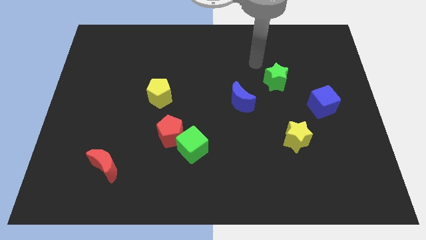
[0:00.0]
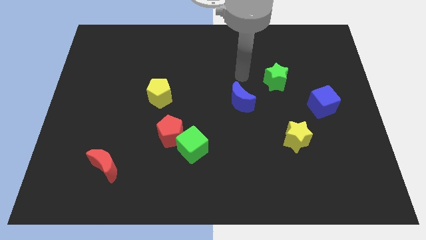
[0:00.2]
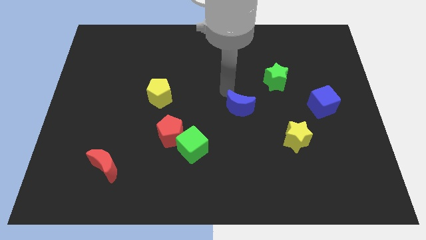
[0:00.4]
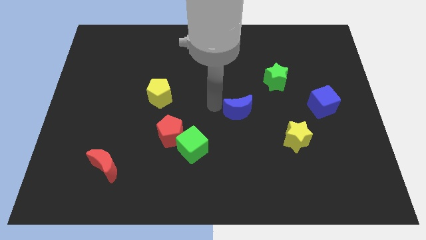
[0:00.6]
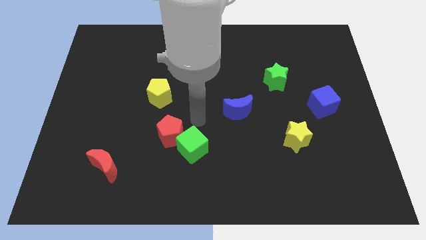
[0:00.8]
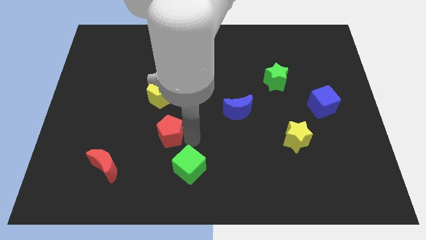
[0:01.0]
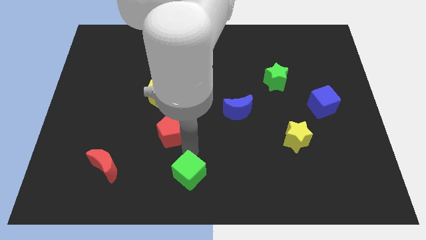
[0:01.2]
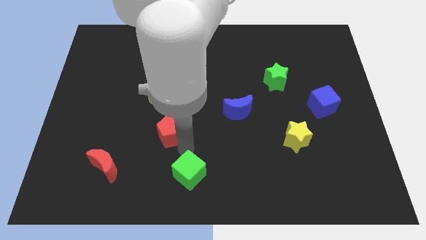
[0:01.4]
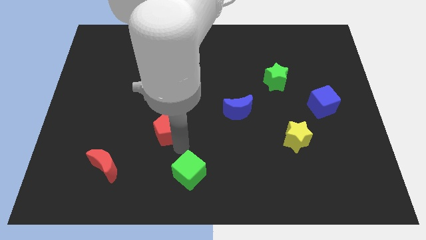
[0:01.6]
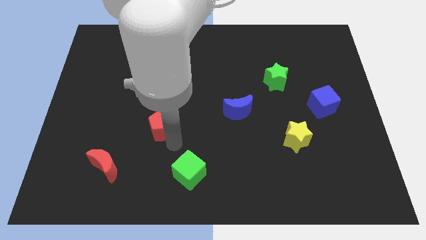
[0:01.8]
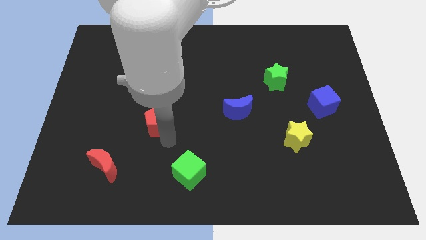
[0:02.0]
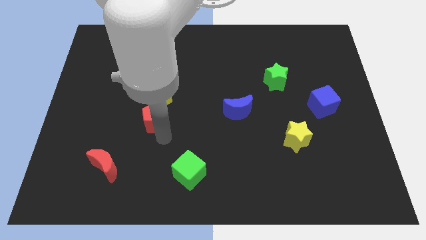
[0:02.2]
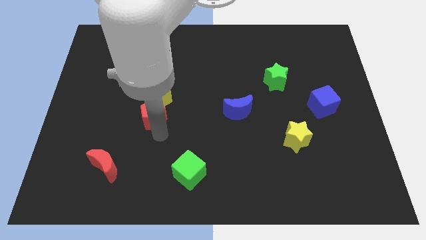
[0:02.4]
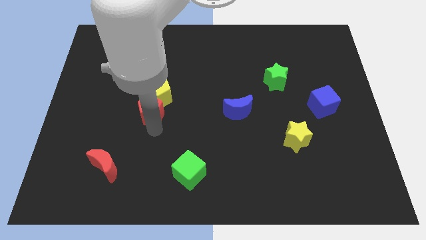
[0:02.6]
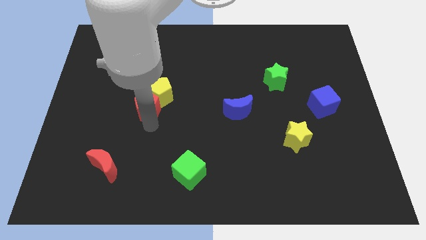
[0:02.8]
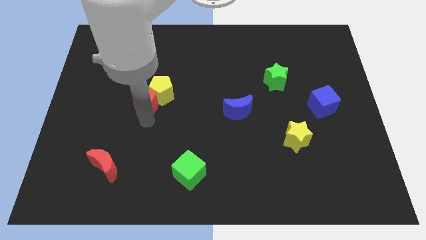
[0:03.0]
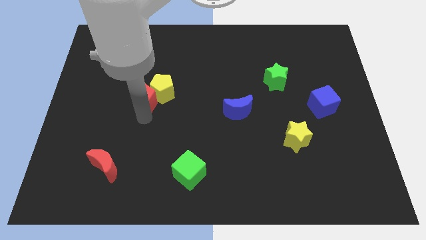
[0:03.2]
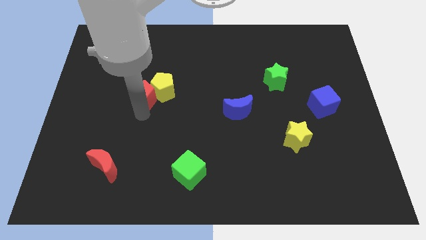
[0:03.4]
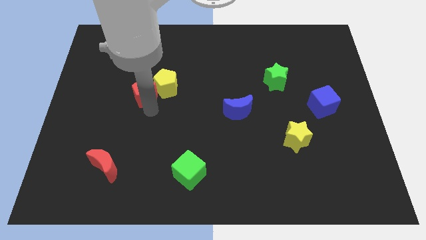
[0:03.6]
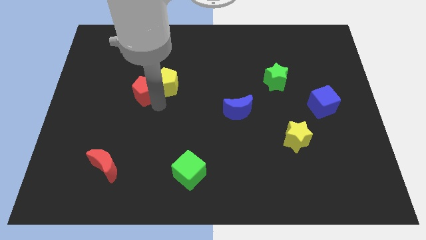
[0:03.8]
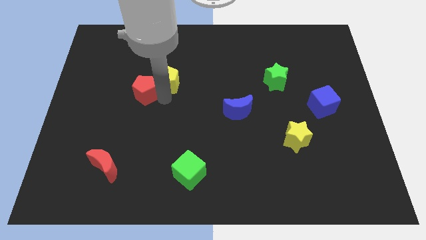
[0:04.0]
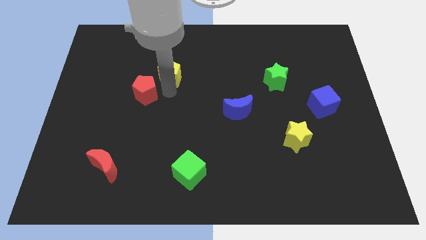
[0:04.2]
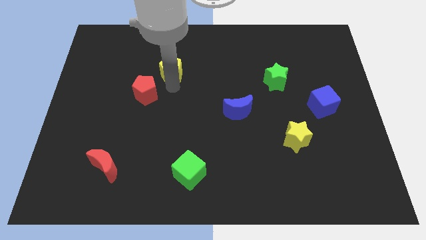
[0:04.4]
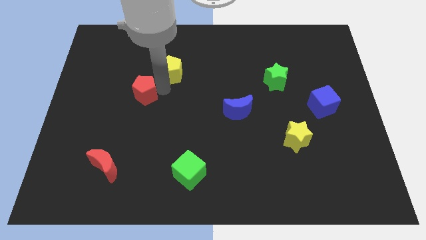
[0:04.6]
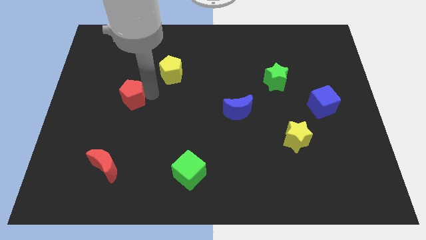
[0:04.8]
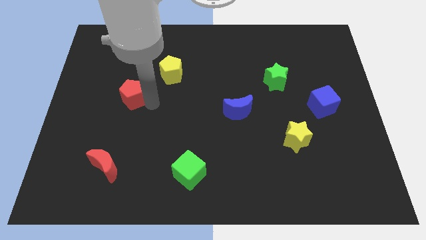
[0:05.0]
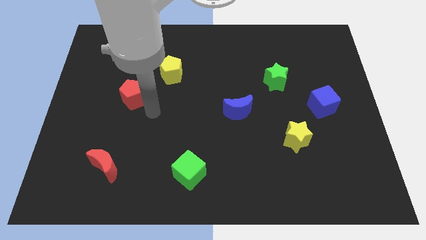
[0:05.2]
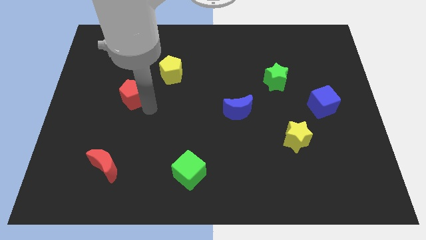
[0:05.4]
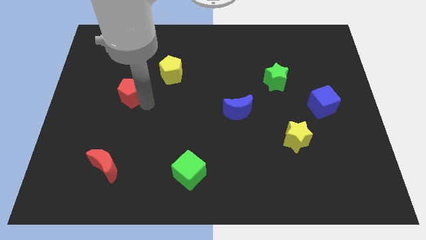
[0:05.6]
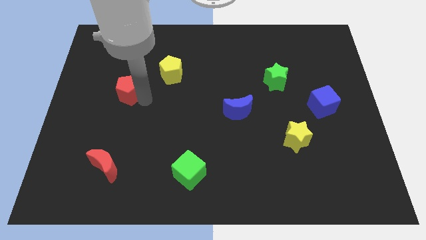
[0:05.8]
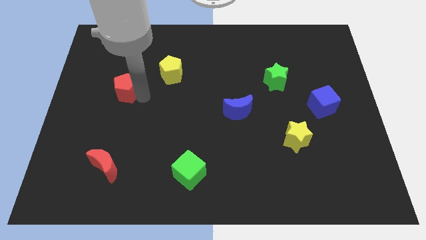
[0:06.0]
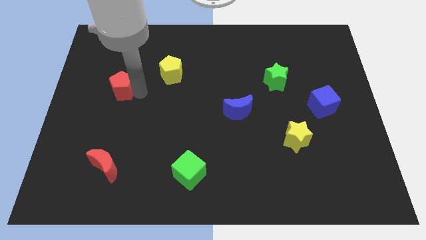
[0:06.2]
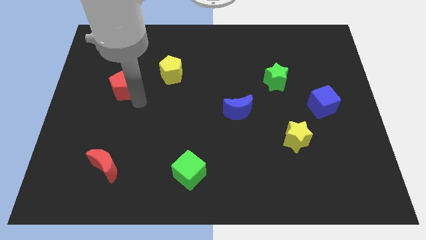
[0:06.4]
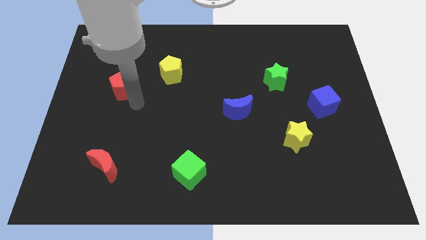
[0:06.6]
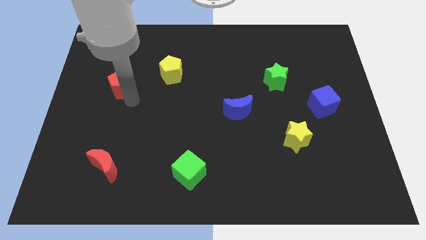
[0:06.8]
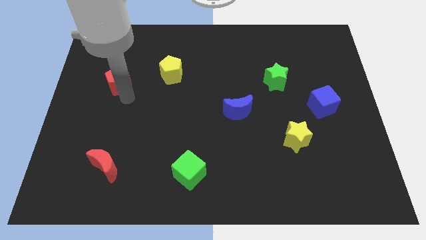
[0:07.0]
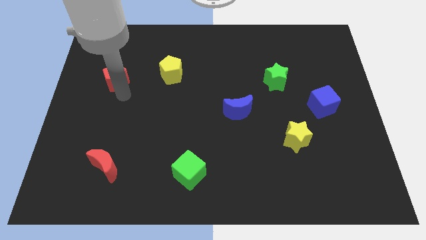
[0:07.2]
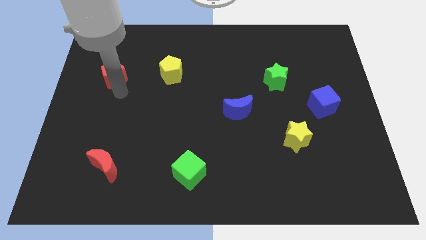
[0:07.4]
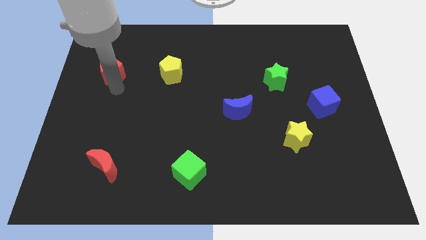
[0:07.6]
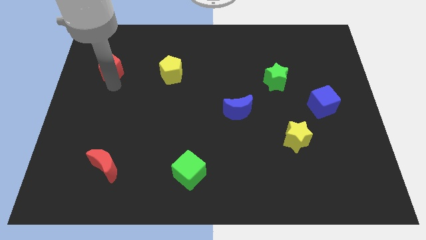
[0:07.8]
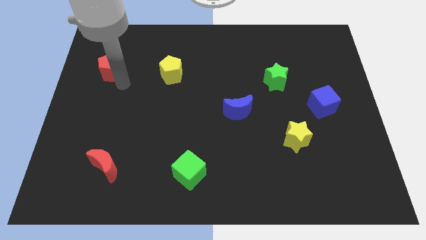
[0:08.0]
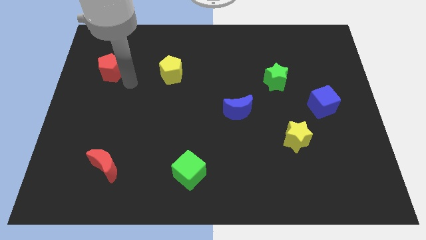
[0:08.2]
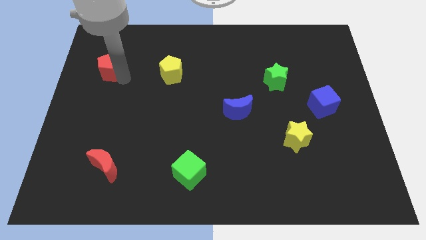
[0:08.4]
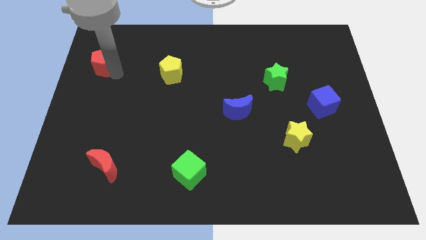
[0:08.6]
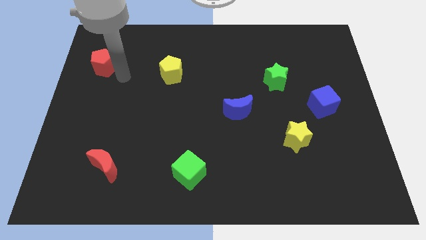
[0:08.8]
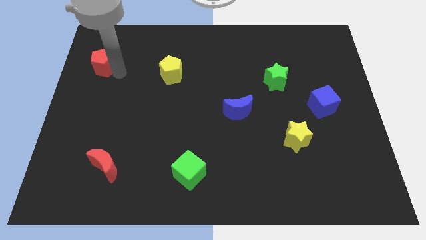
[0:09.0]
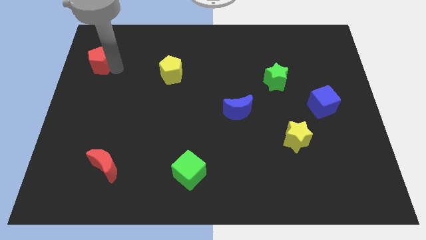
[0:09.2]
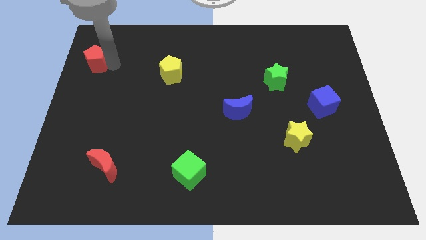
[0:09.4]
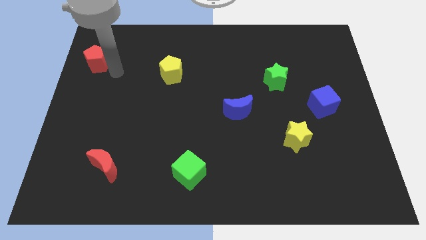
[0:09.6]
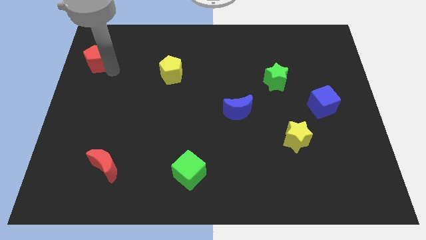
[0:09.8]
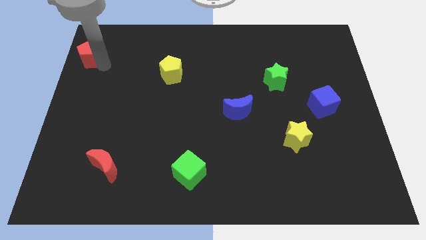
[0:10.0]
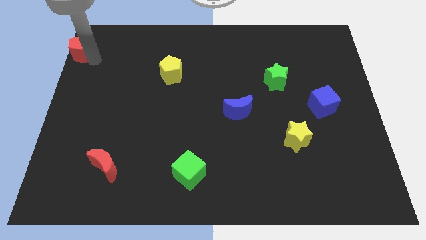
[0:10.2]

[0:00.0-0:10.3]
slide the red pentagon to the top left of the board

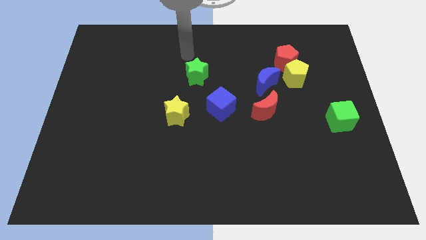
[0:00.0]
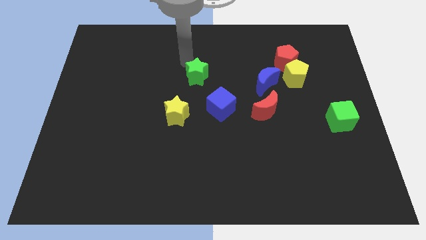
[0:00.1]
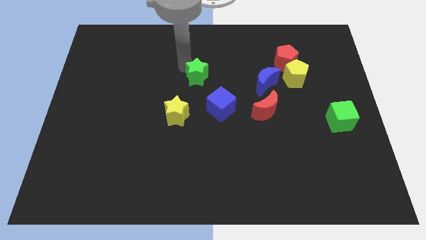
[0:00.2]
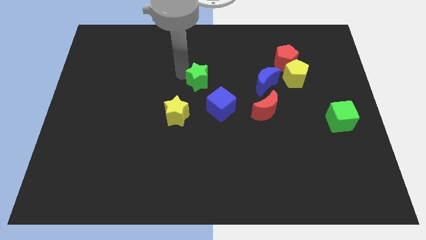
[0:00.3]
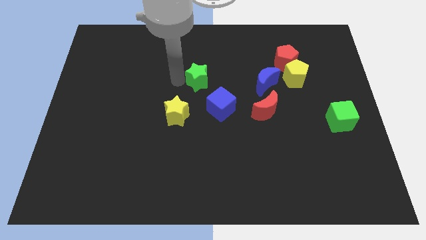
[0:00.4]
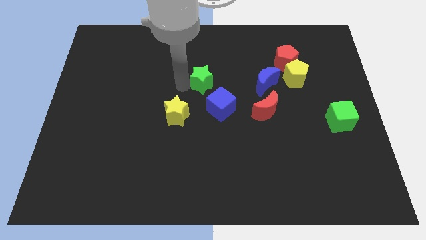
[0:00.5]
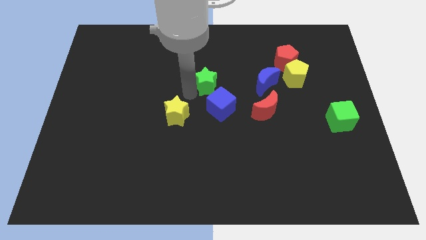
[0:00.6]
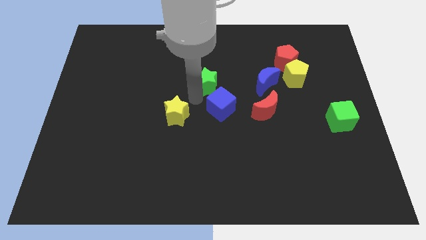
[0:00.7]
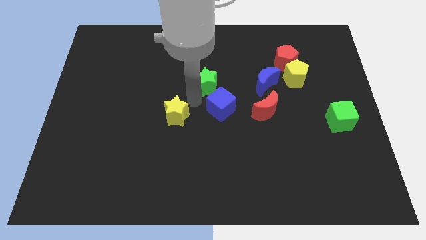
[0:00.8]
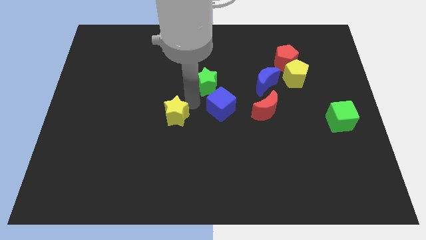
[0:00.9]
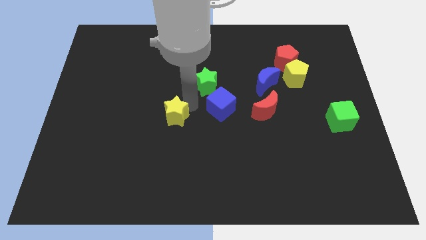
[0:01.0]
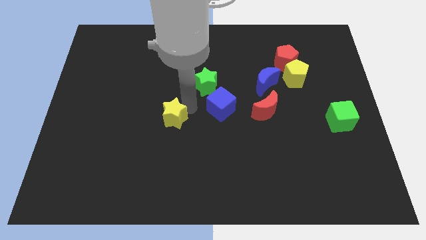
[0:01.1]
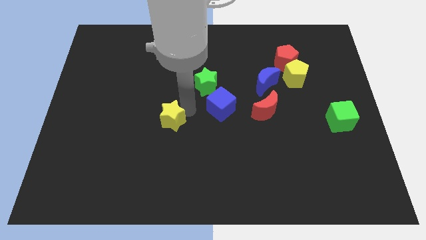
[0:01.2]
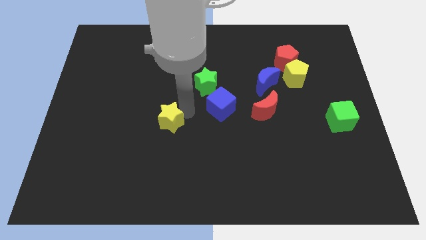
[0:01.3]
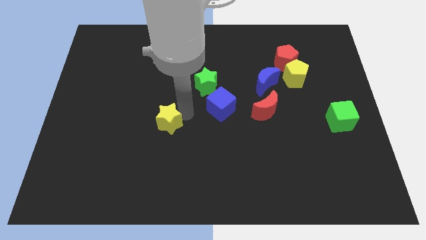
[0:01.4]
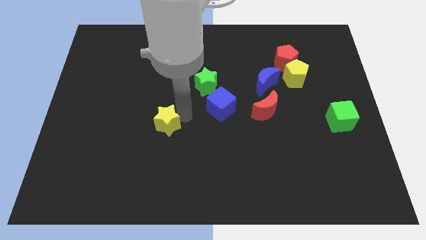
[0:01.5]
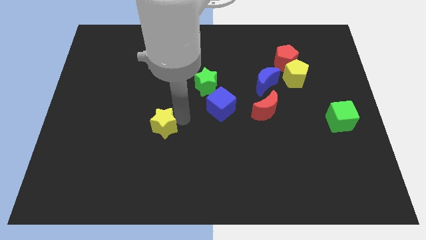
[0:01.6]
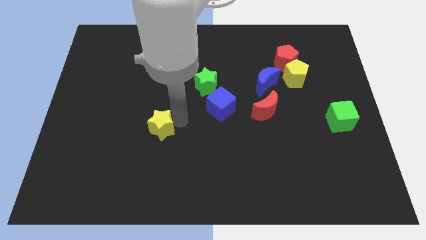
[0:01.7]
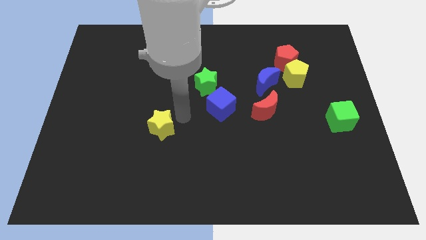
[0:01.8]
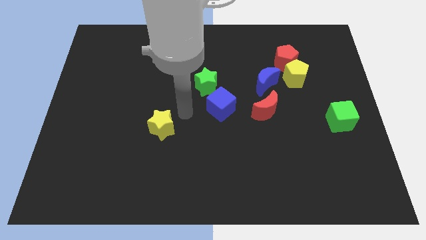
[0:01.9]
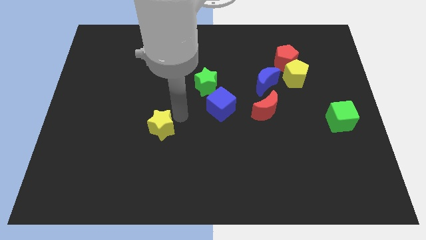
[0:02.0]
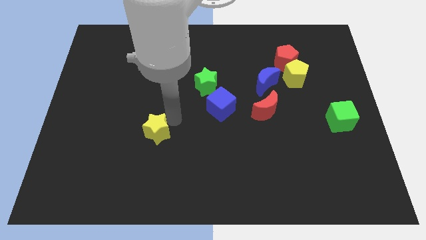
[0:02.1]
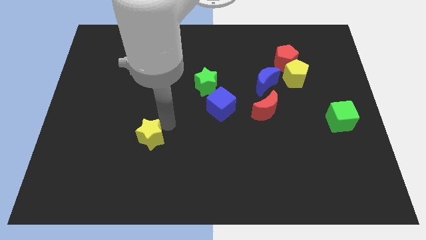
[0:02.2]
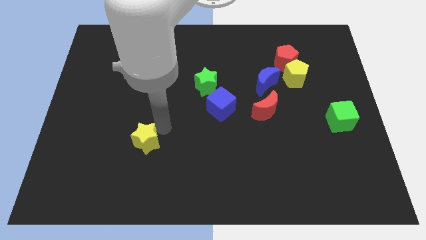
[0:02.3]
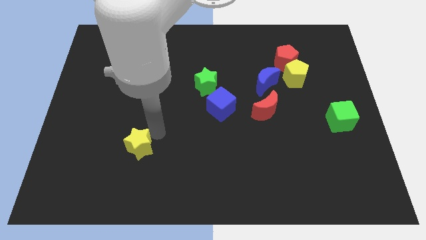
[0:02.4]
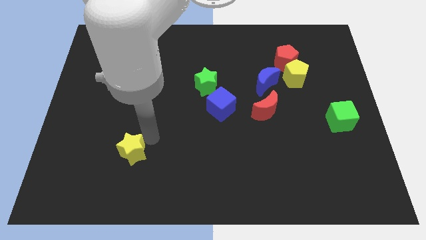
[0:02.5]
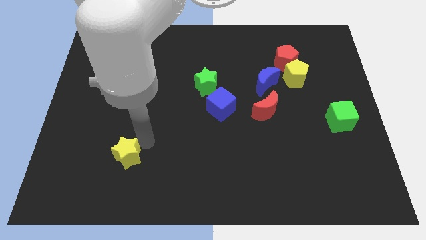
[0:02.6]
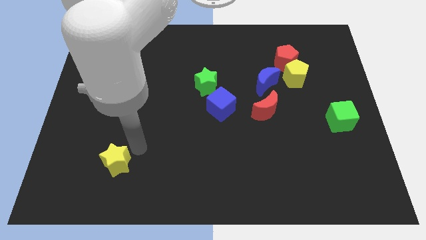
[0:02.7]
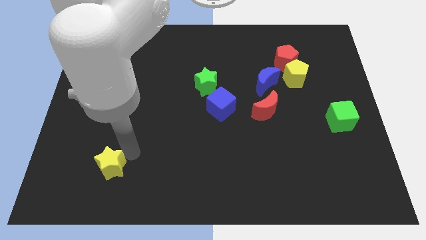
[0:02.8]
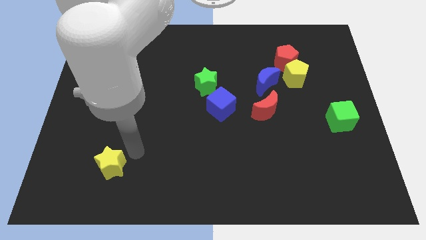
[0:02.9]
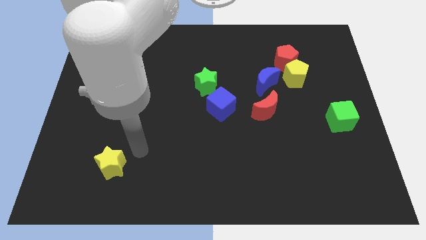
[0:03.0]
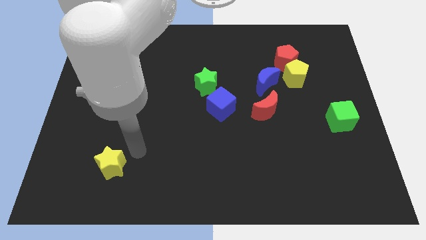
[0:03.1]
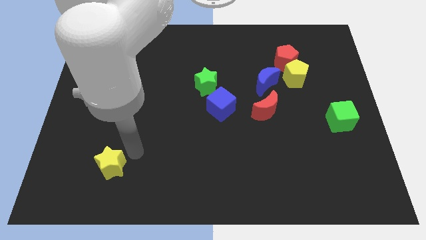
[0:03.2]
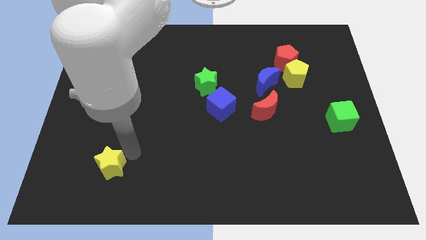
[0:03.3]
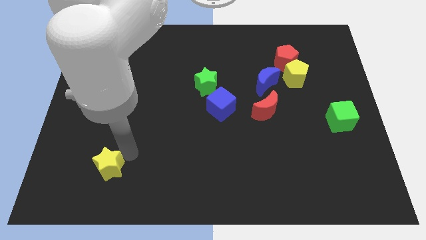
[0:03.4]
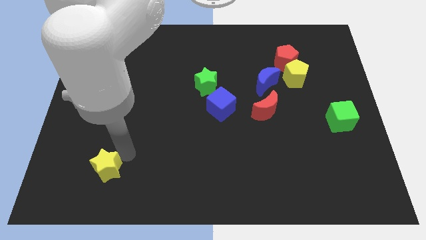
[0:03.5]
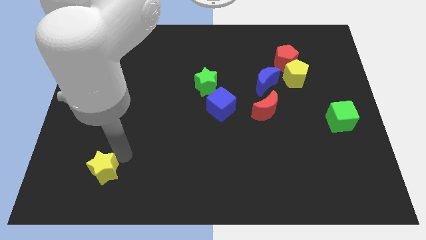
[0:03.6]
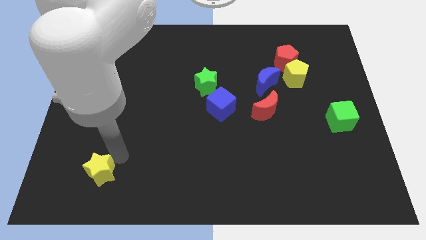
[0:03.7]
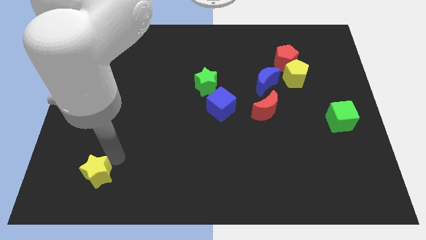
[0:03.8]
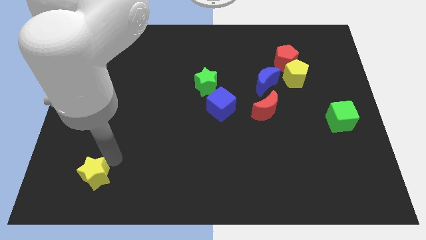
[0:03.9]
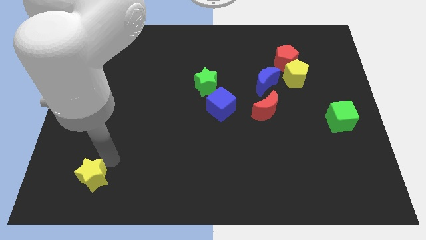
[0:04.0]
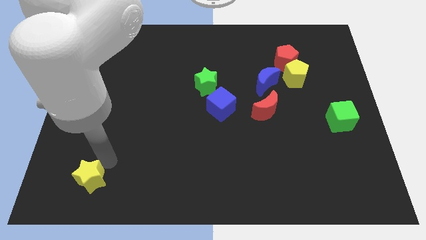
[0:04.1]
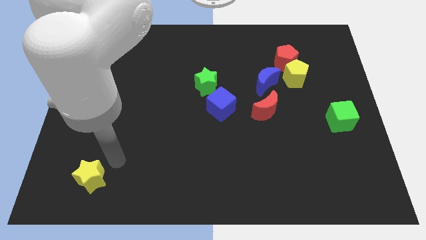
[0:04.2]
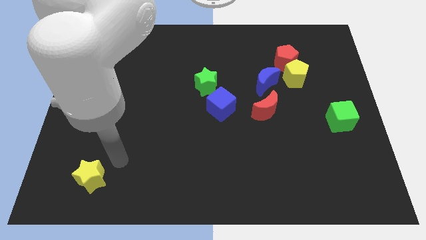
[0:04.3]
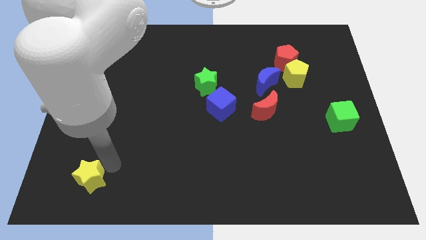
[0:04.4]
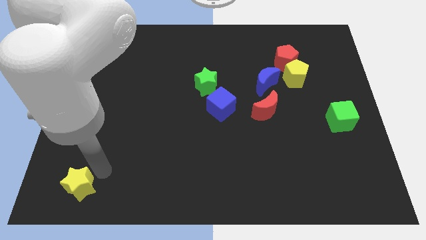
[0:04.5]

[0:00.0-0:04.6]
put the yellow star to the bottom left of the board
